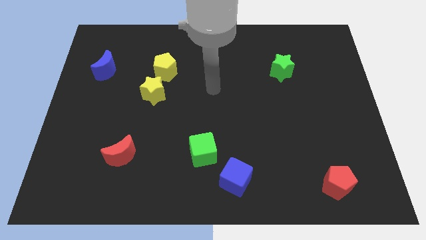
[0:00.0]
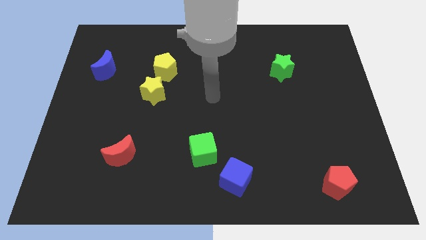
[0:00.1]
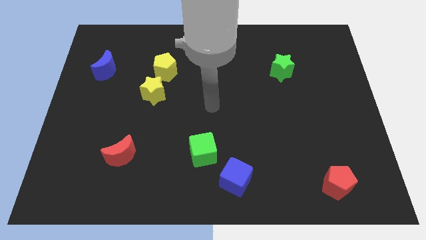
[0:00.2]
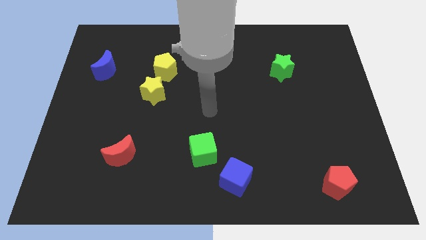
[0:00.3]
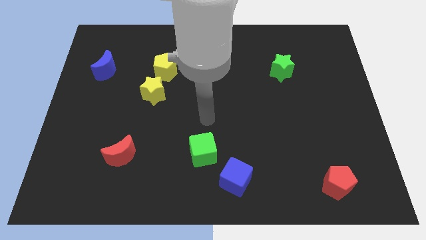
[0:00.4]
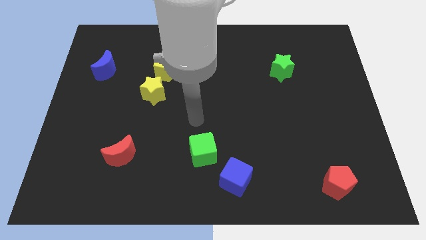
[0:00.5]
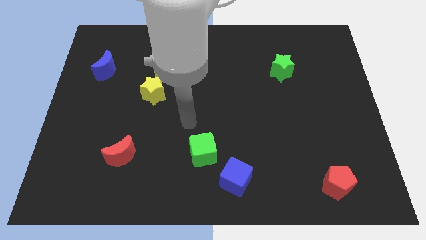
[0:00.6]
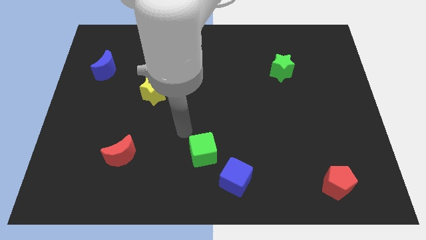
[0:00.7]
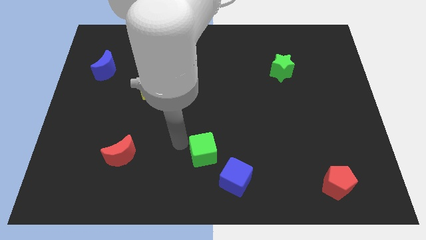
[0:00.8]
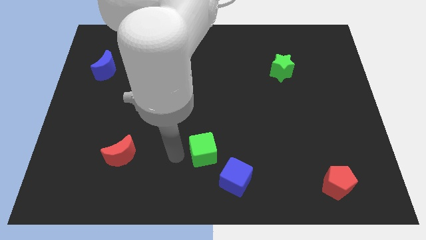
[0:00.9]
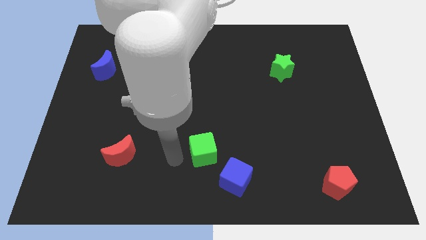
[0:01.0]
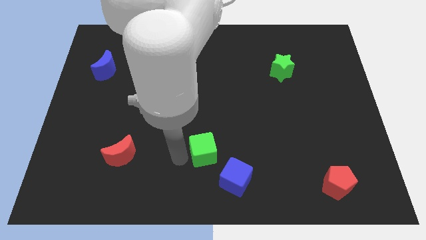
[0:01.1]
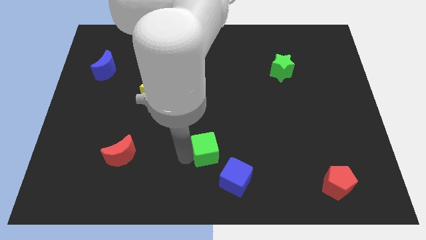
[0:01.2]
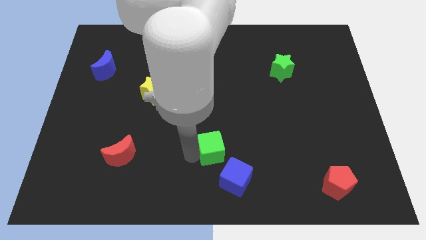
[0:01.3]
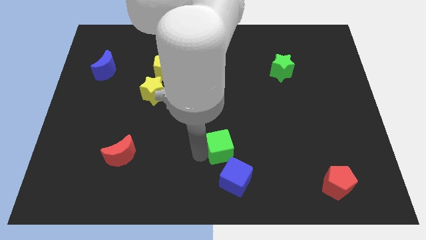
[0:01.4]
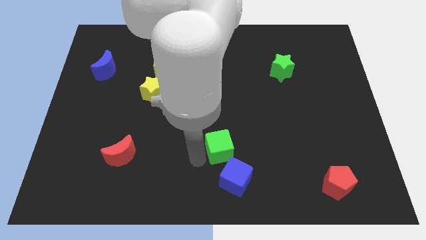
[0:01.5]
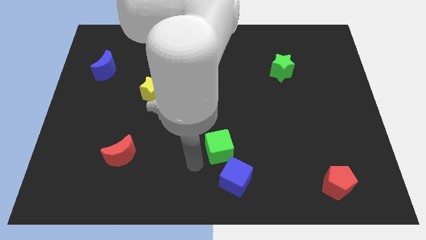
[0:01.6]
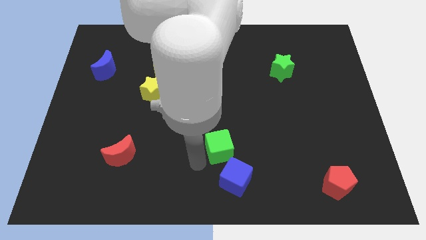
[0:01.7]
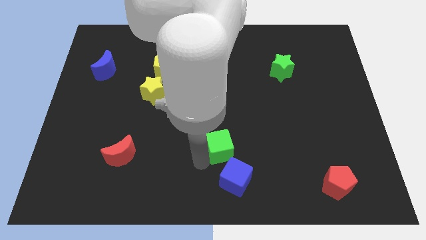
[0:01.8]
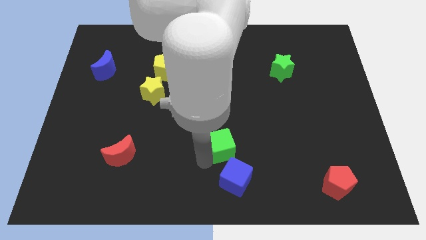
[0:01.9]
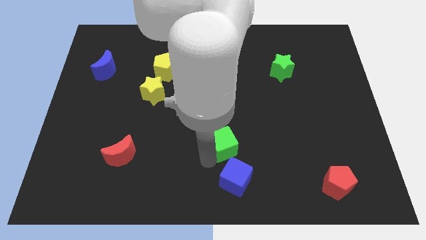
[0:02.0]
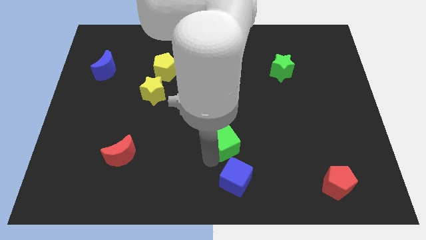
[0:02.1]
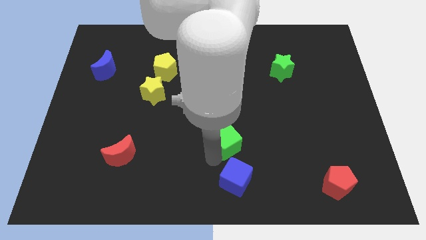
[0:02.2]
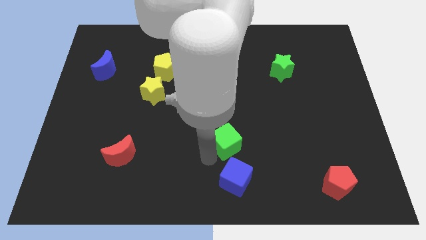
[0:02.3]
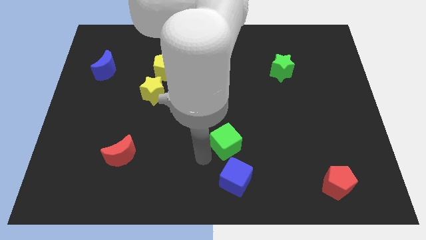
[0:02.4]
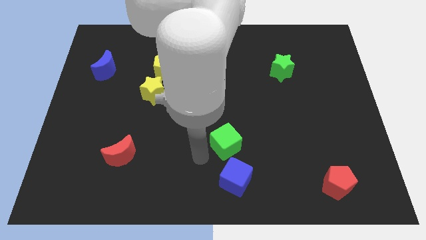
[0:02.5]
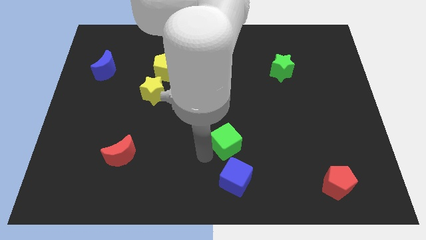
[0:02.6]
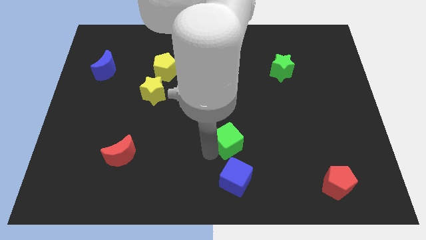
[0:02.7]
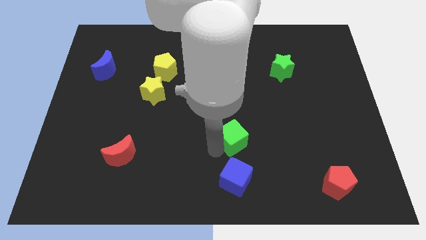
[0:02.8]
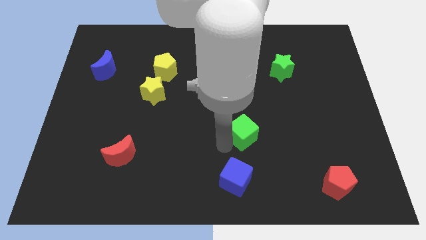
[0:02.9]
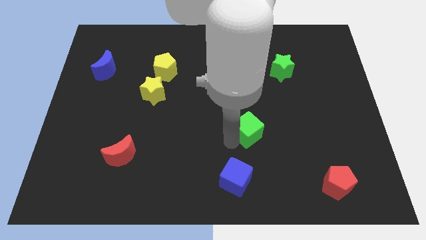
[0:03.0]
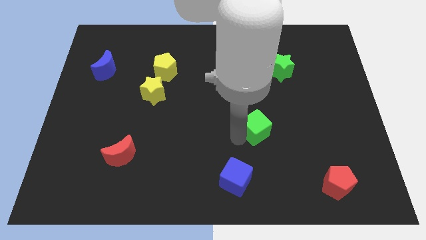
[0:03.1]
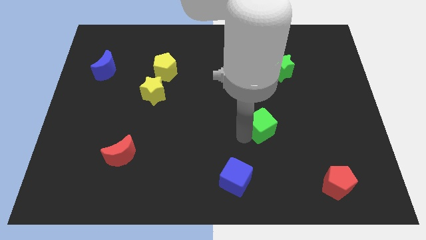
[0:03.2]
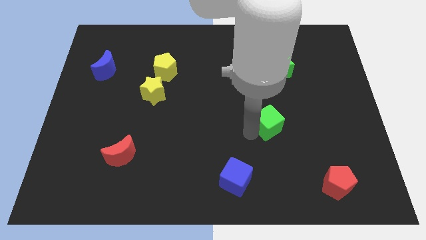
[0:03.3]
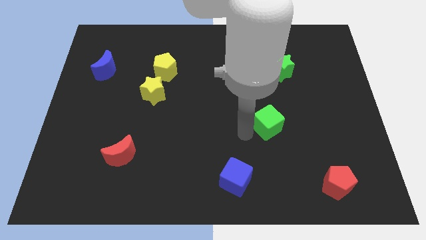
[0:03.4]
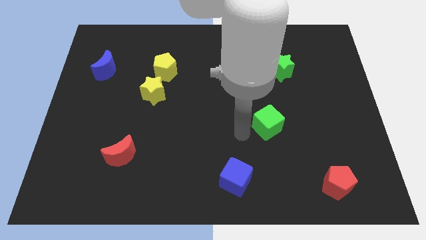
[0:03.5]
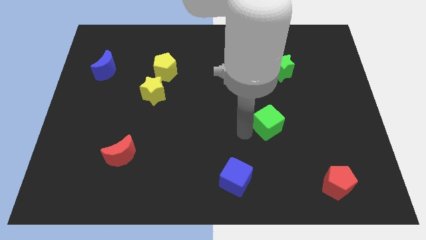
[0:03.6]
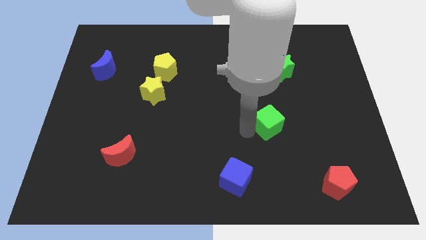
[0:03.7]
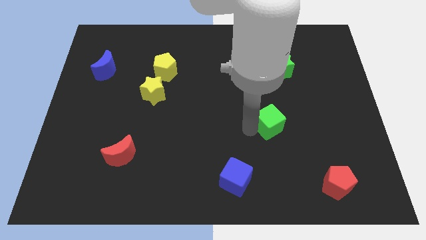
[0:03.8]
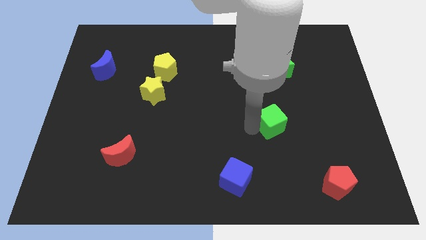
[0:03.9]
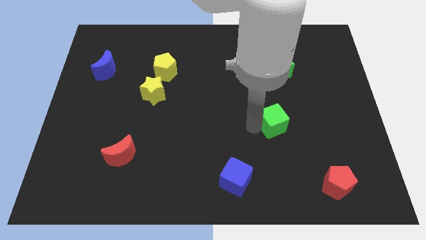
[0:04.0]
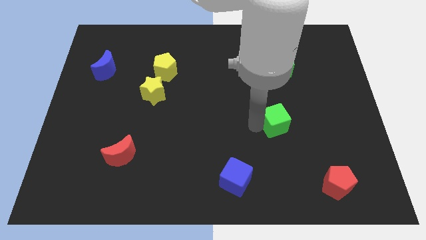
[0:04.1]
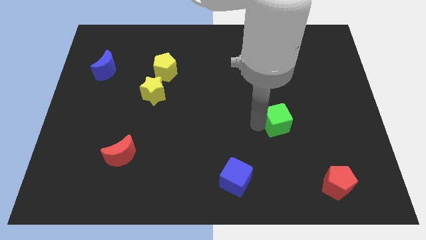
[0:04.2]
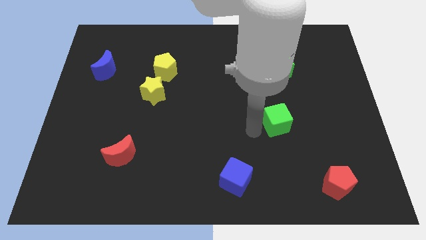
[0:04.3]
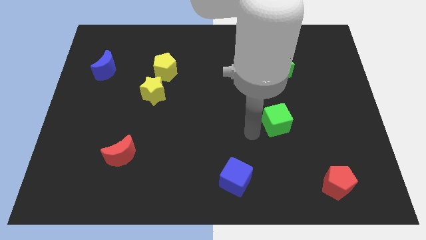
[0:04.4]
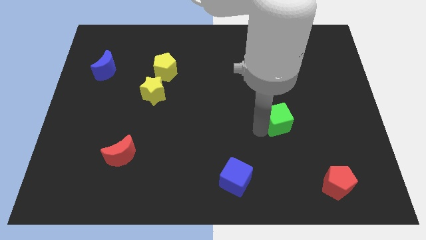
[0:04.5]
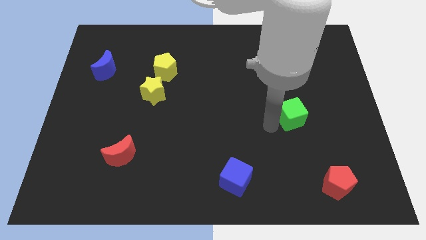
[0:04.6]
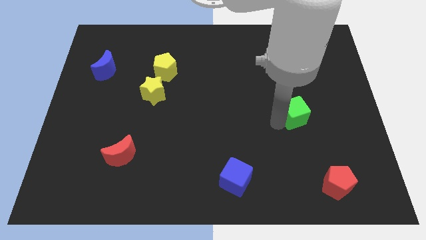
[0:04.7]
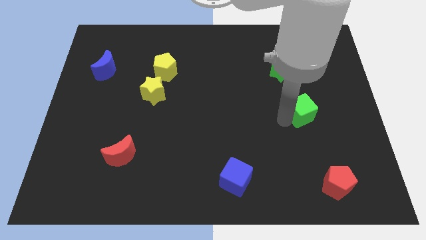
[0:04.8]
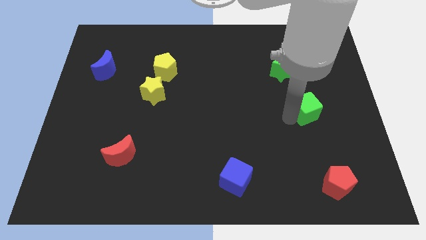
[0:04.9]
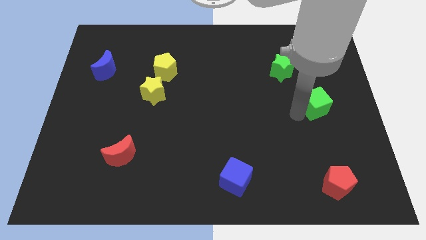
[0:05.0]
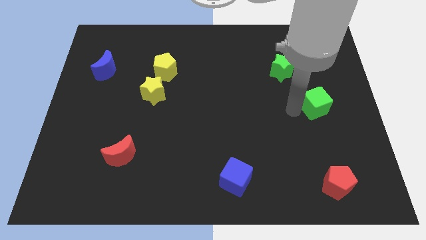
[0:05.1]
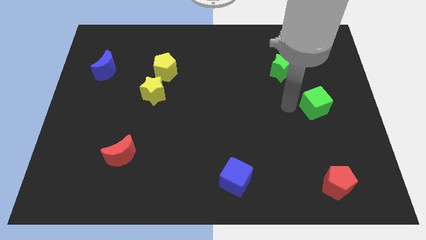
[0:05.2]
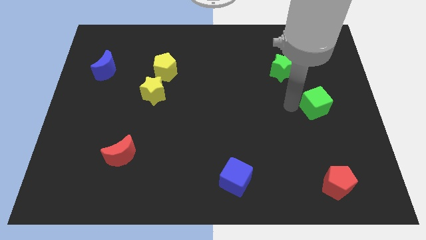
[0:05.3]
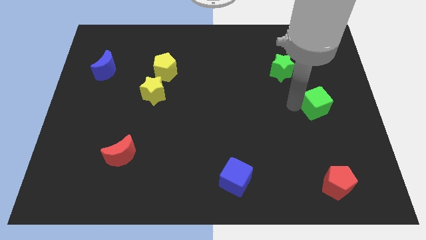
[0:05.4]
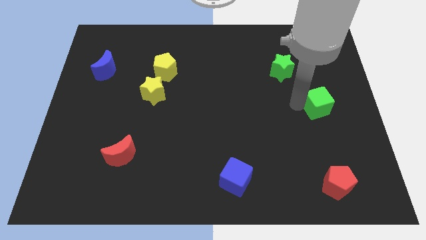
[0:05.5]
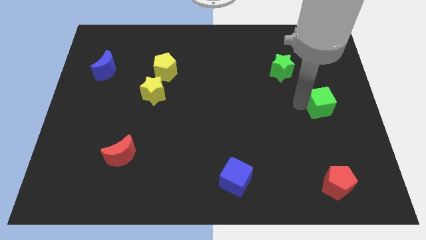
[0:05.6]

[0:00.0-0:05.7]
move the green cube to the center right

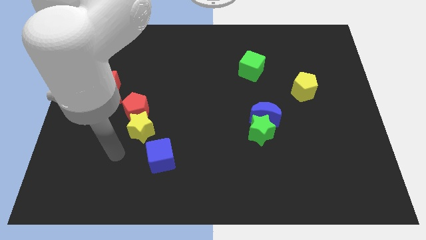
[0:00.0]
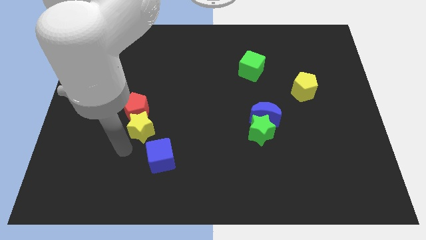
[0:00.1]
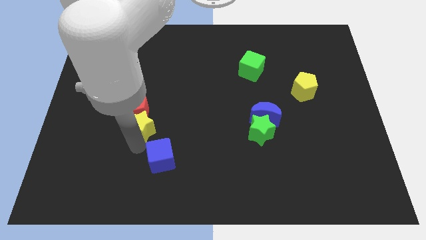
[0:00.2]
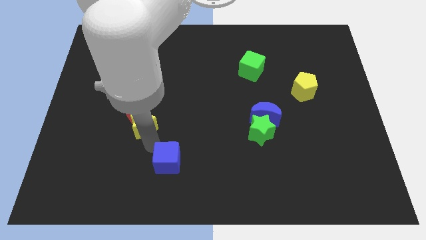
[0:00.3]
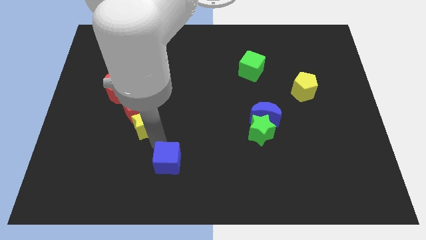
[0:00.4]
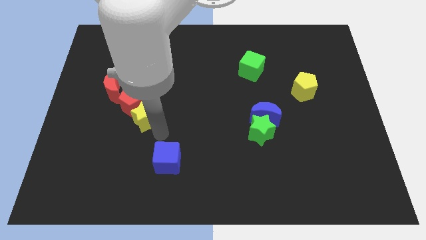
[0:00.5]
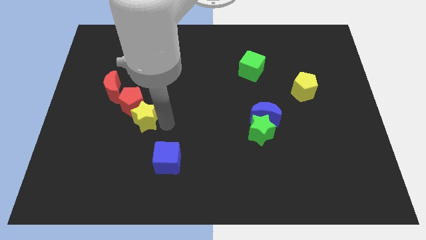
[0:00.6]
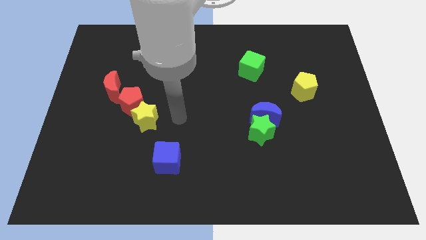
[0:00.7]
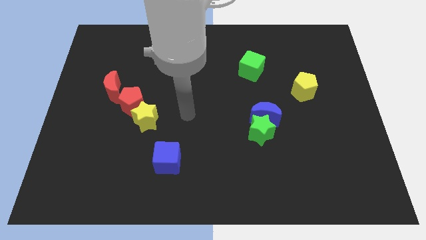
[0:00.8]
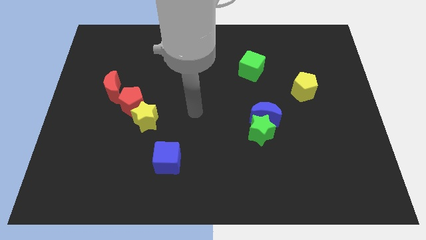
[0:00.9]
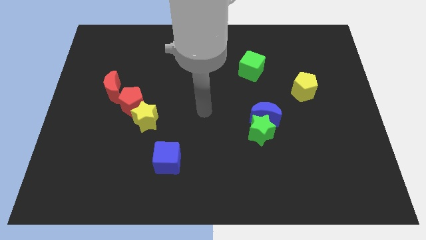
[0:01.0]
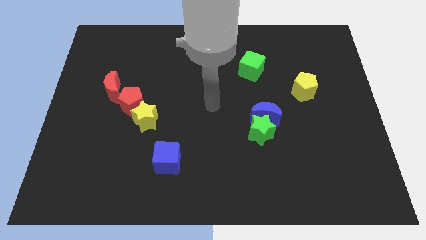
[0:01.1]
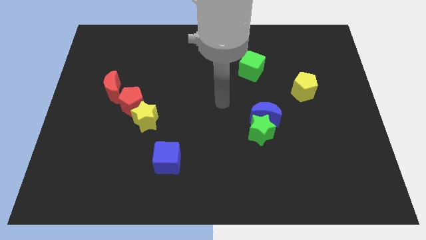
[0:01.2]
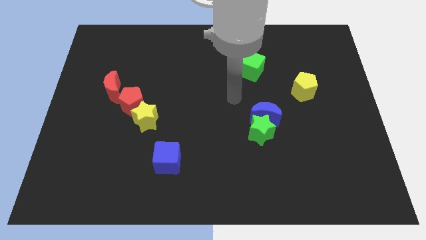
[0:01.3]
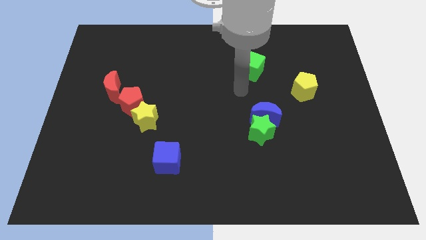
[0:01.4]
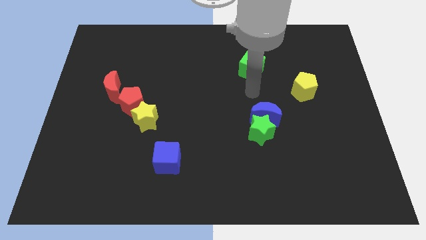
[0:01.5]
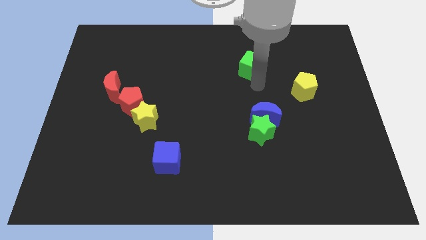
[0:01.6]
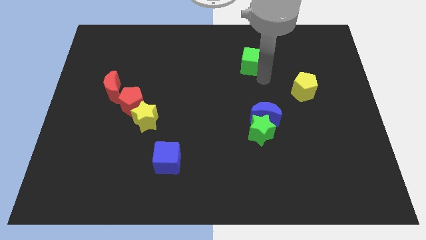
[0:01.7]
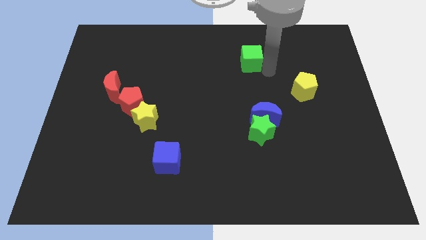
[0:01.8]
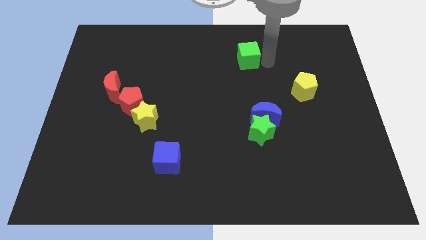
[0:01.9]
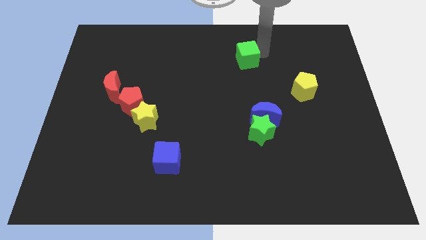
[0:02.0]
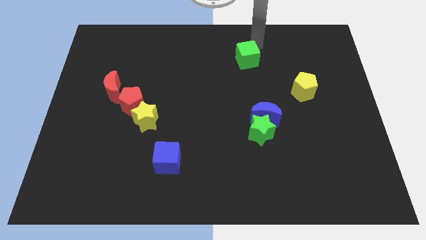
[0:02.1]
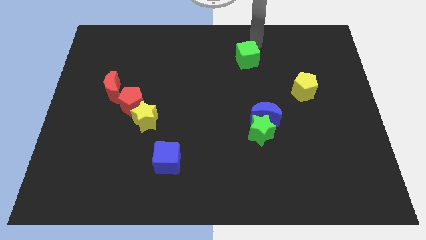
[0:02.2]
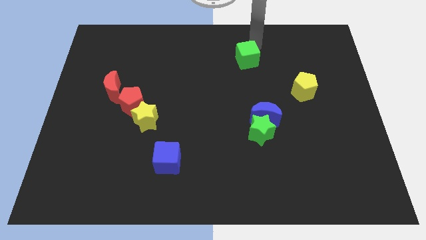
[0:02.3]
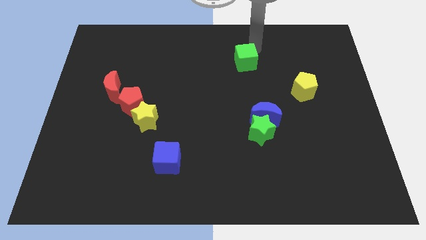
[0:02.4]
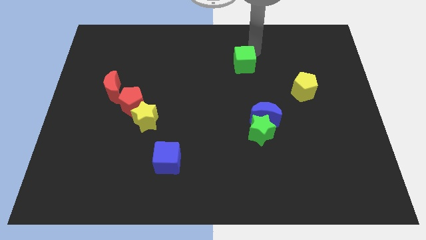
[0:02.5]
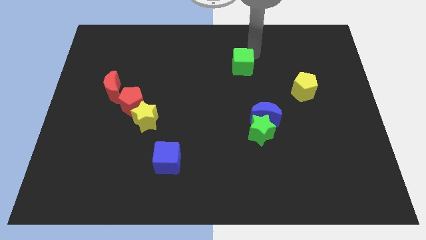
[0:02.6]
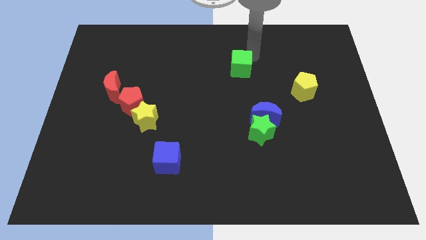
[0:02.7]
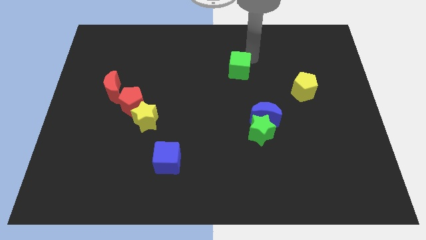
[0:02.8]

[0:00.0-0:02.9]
move the green cube to the center
